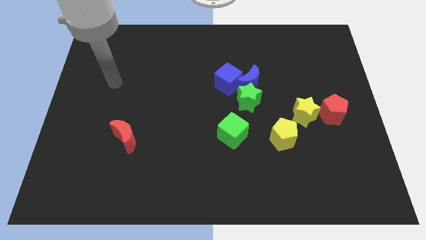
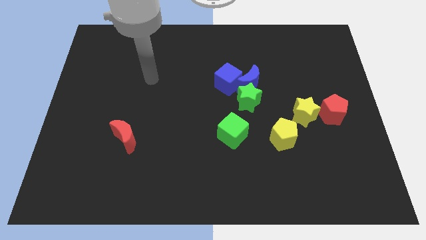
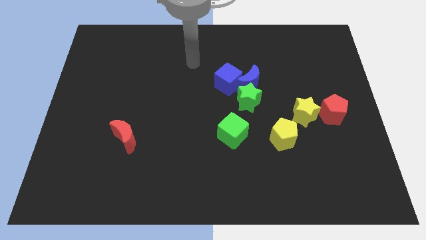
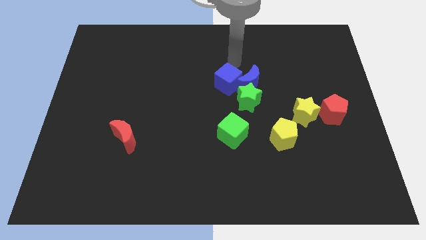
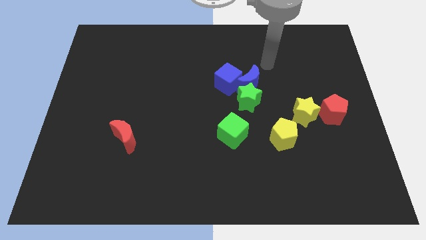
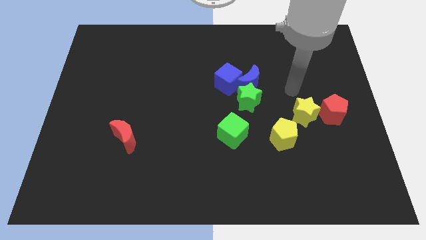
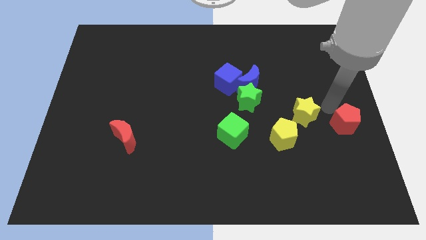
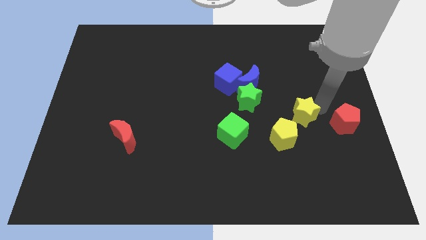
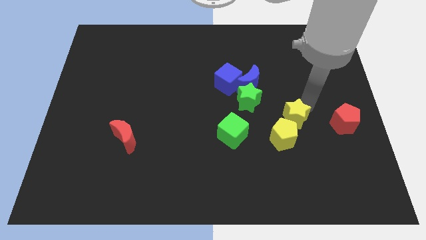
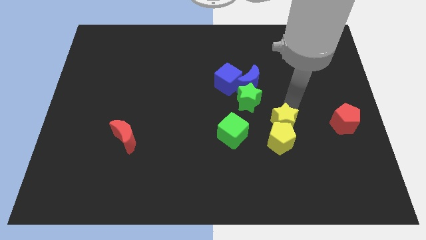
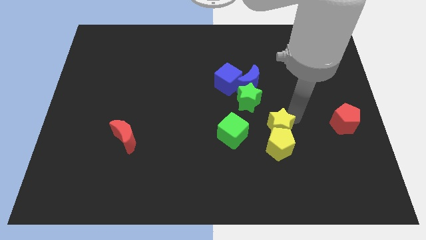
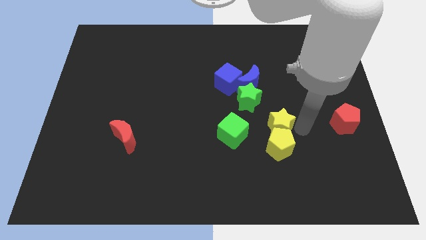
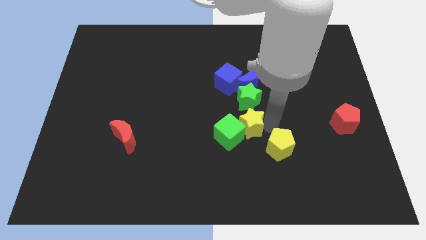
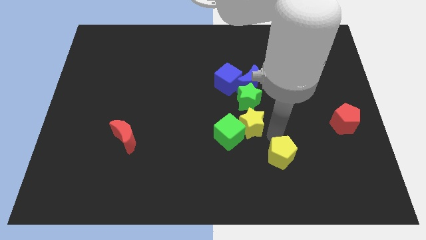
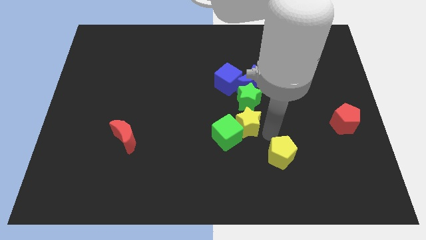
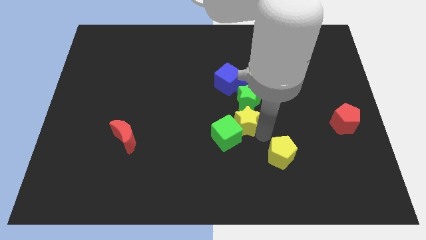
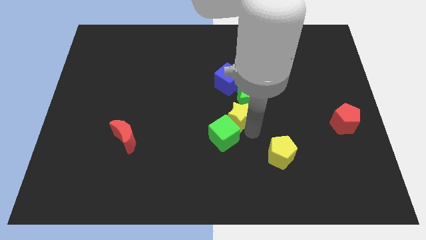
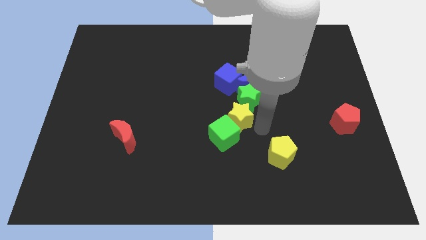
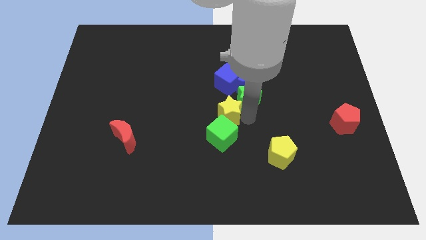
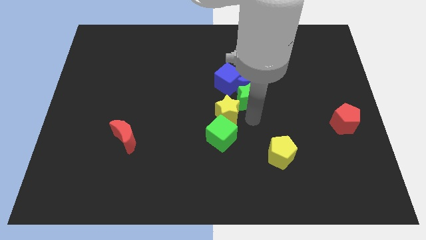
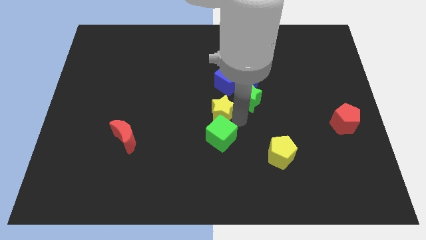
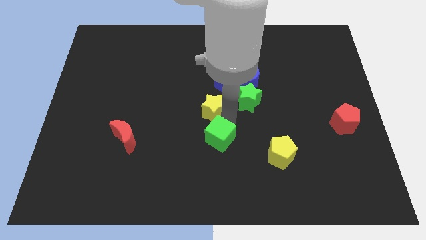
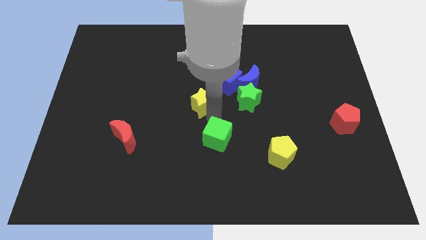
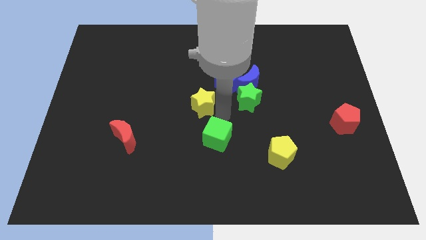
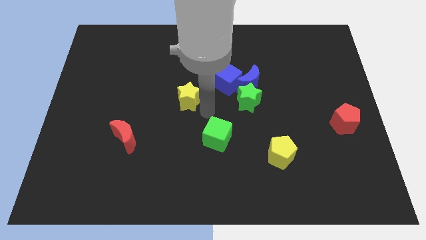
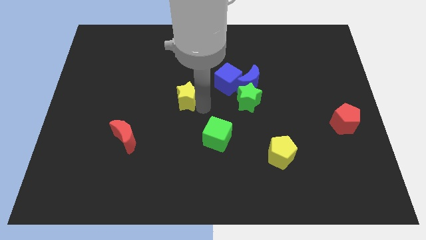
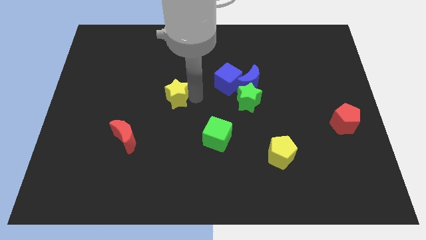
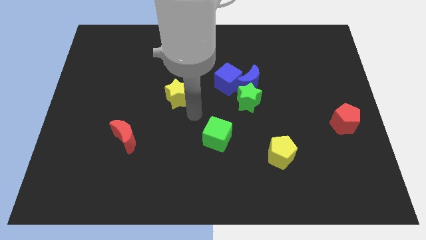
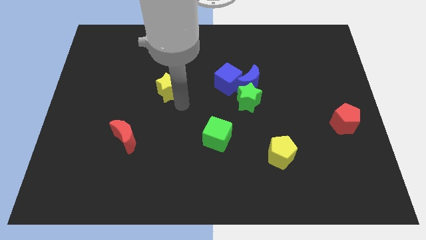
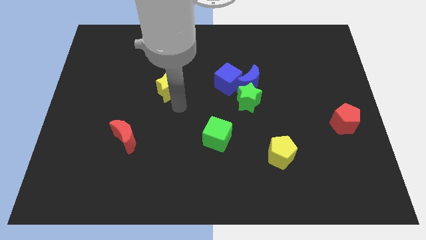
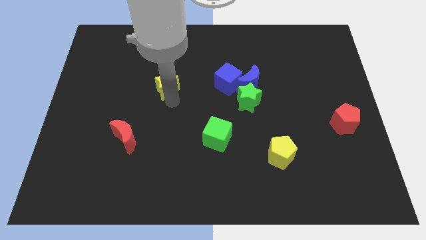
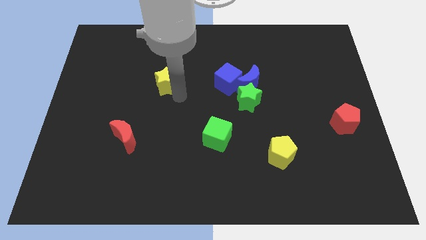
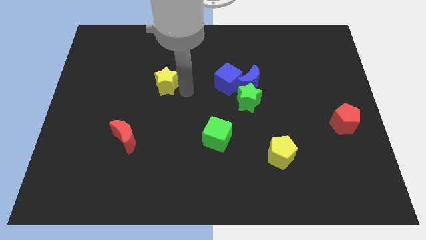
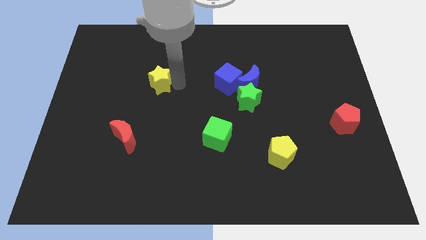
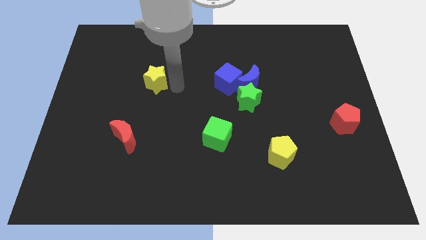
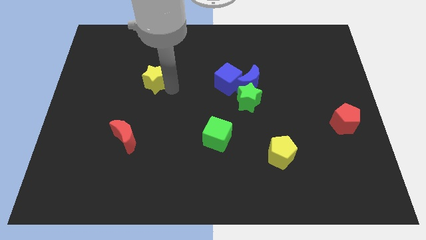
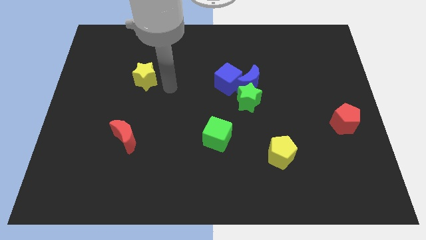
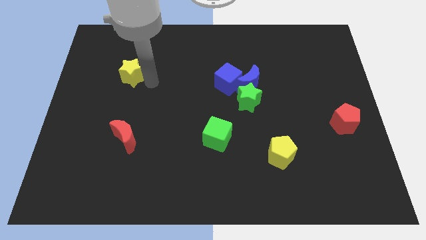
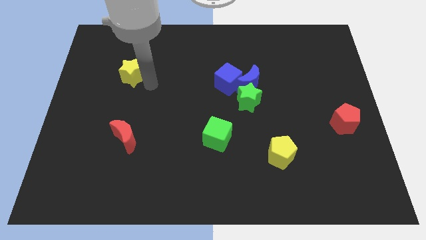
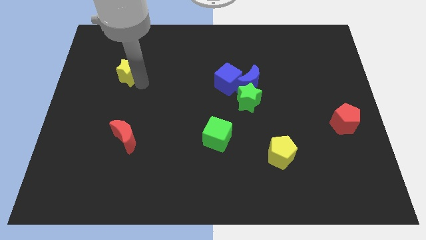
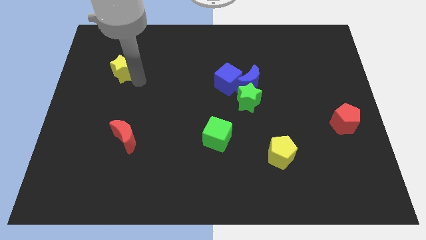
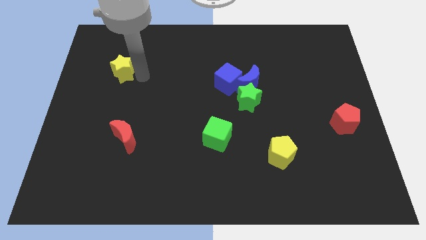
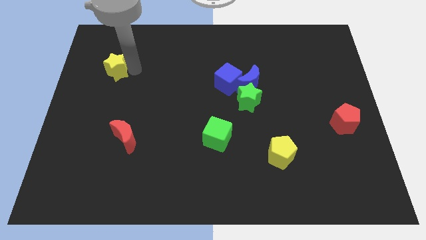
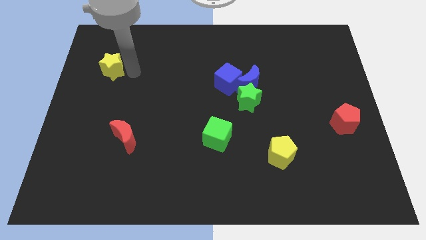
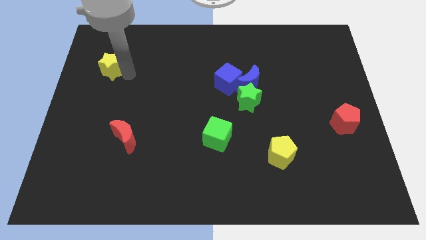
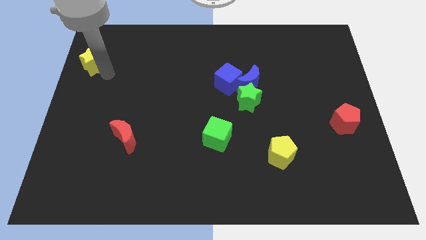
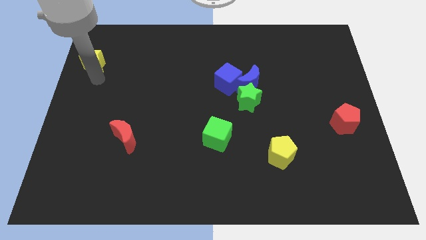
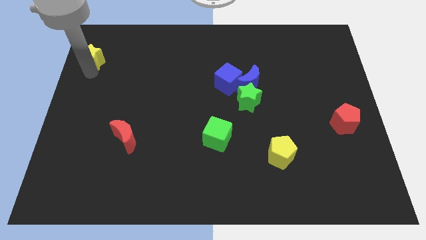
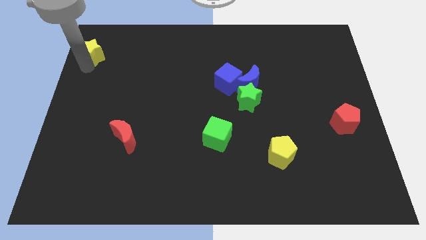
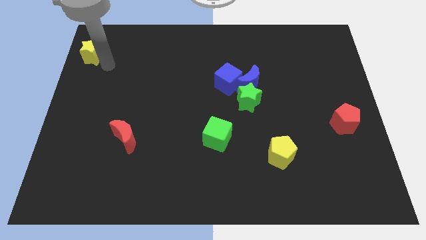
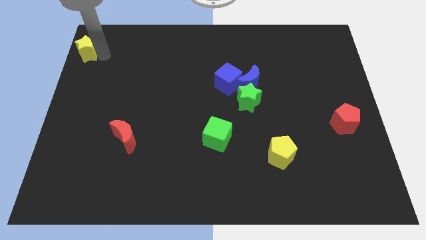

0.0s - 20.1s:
move the yellow star to the upper left corner

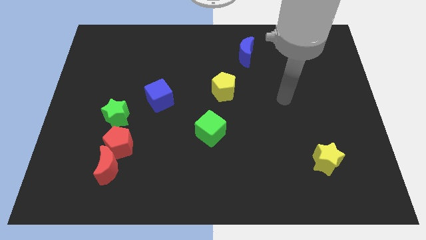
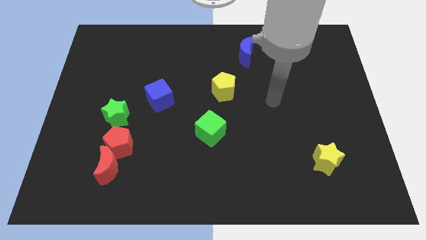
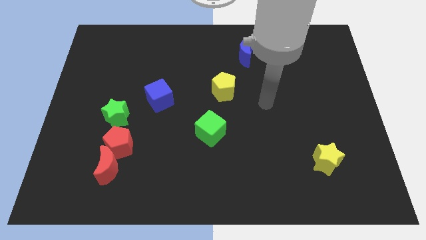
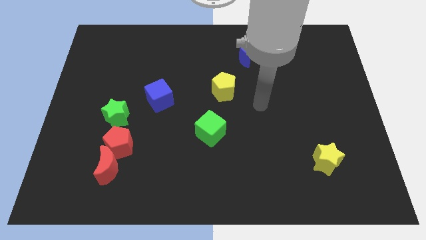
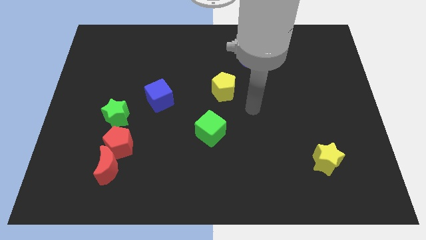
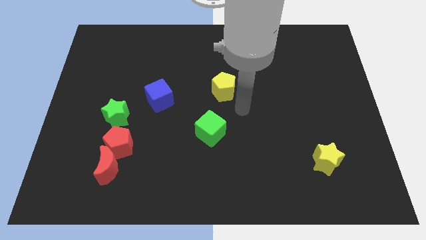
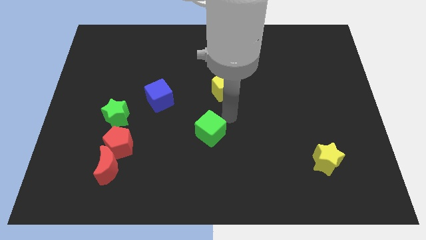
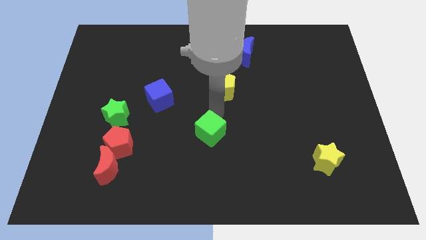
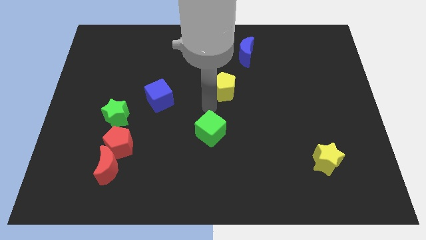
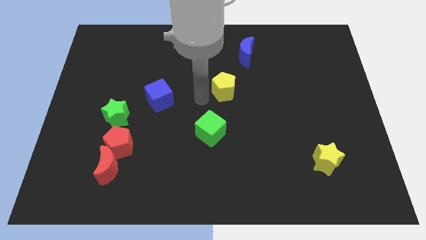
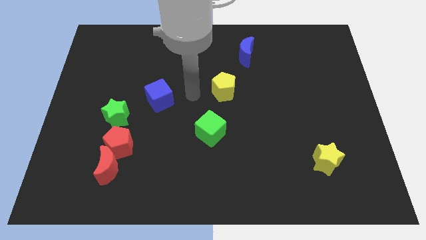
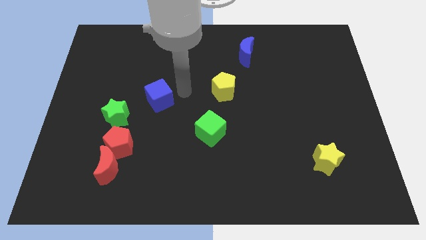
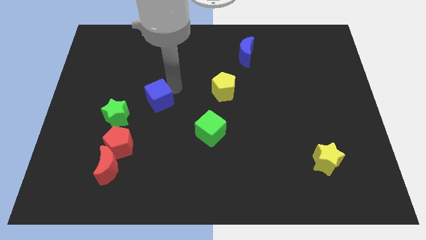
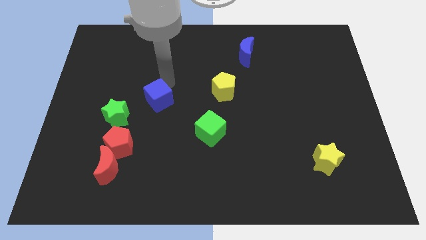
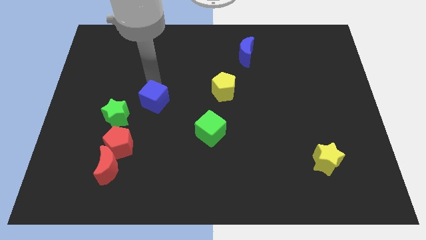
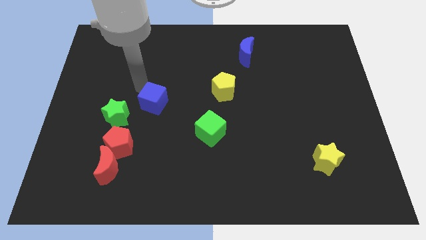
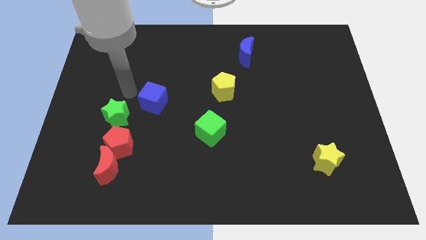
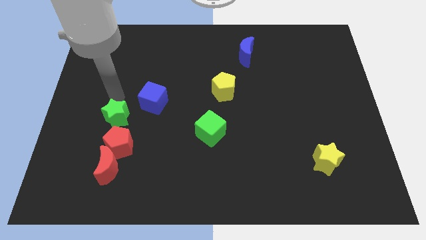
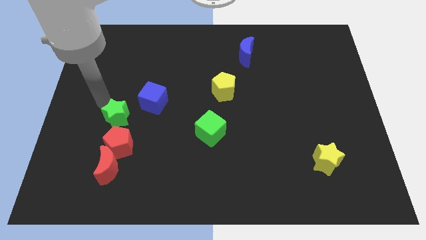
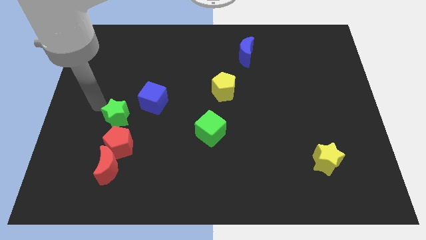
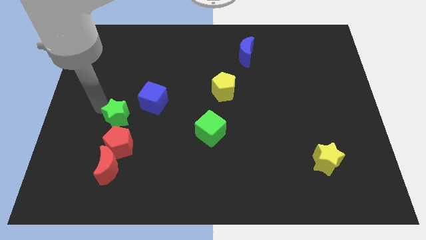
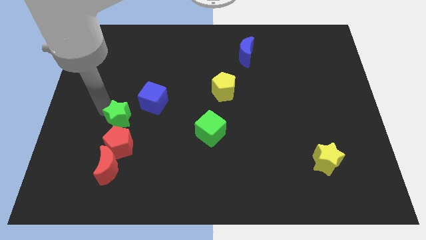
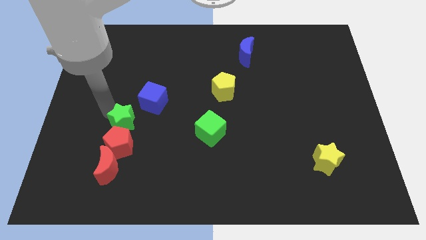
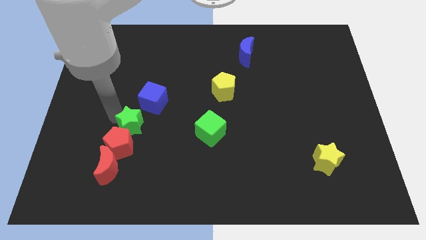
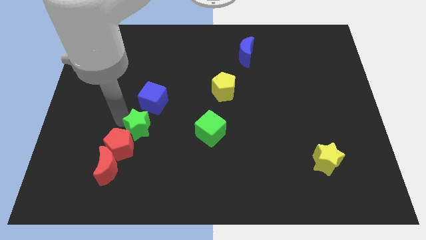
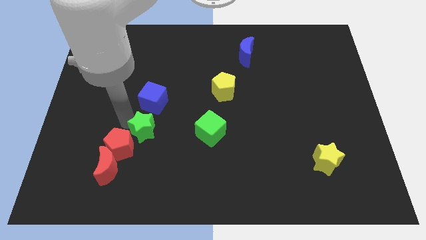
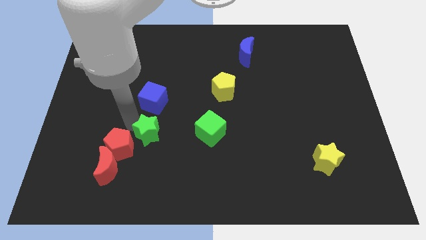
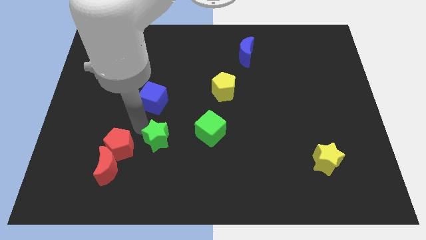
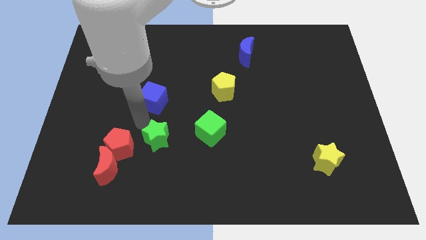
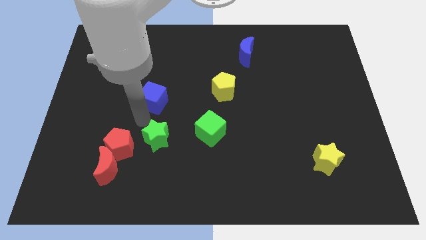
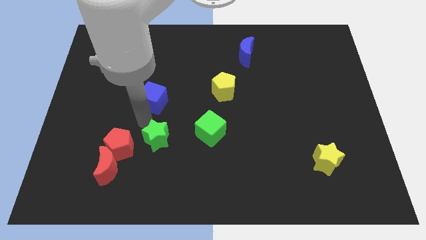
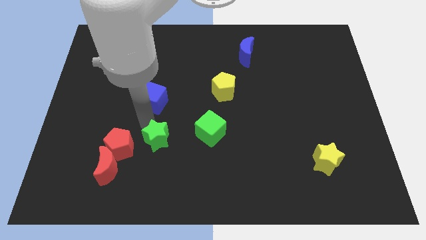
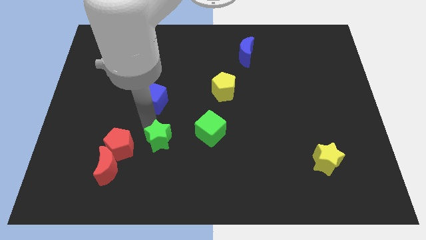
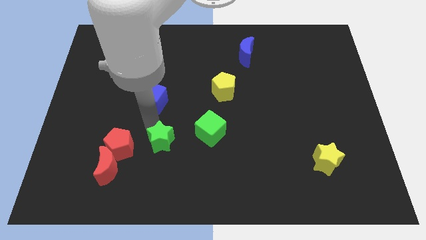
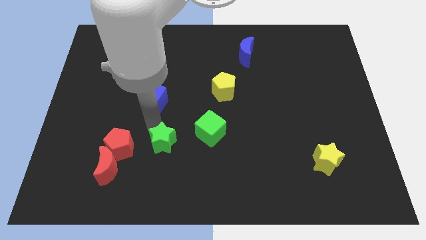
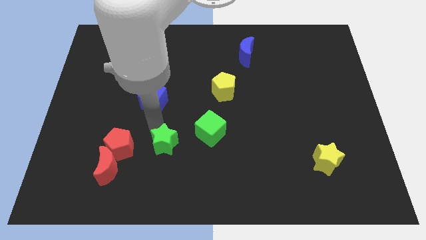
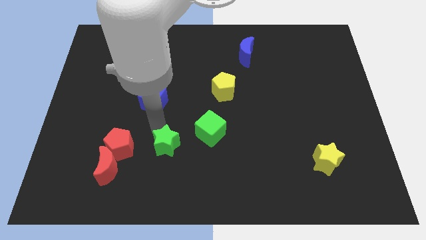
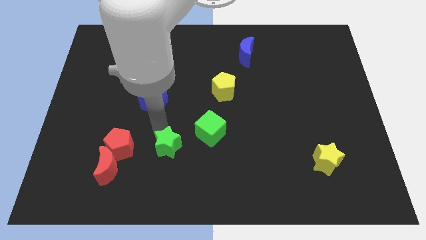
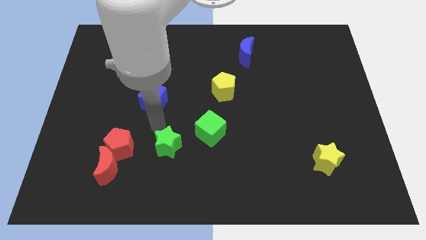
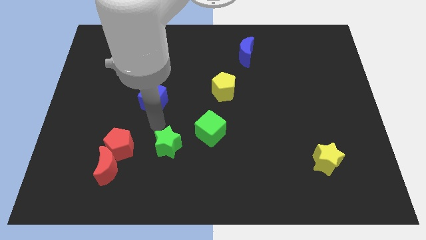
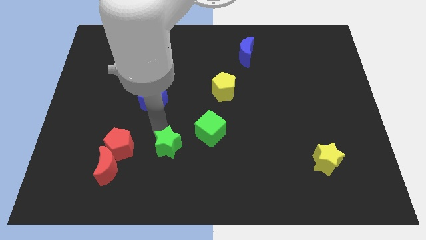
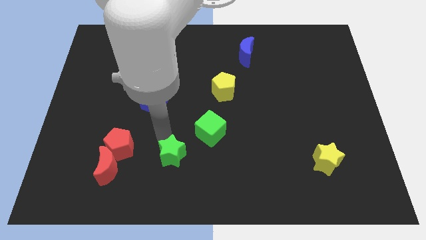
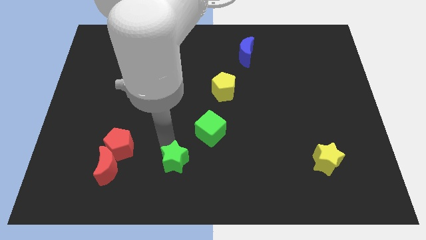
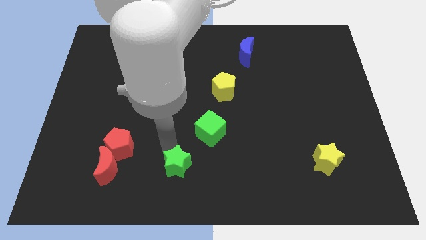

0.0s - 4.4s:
slide the green star to the bottom side
